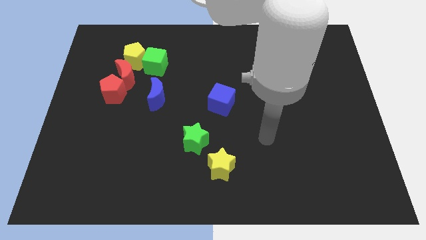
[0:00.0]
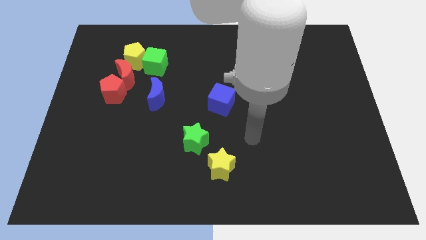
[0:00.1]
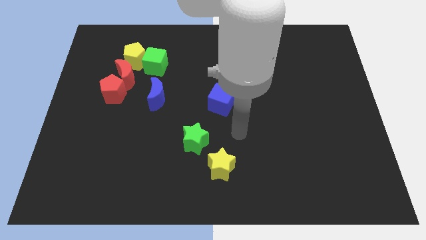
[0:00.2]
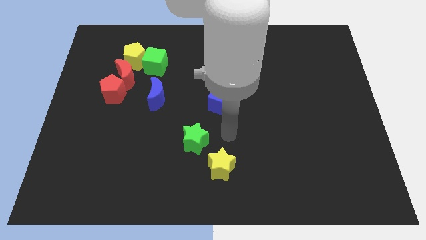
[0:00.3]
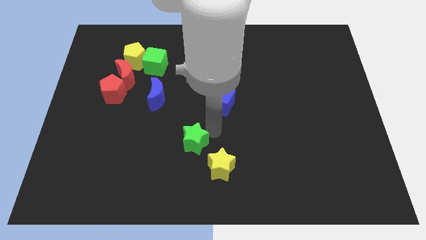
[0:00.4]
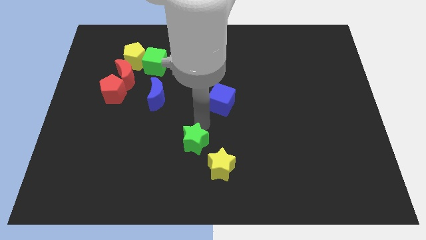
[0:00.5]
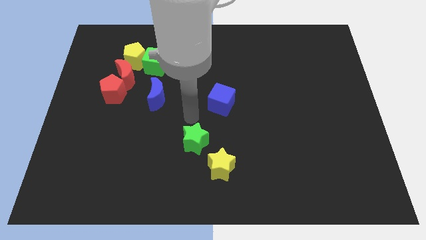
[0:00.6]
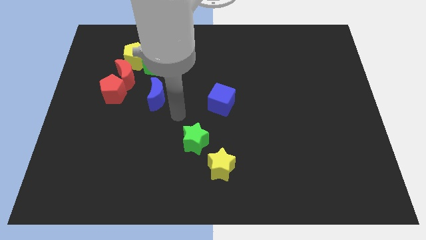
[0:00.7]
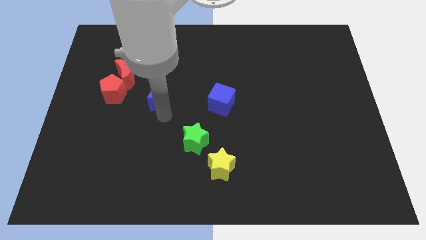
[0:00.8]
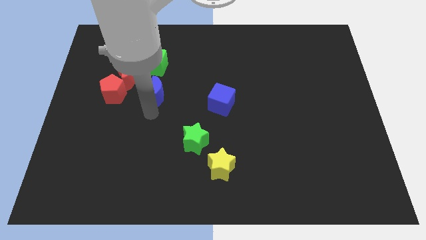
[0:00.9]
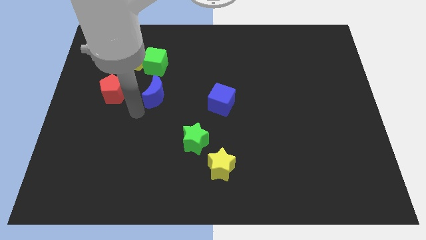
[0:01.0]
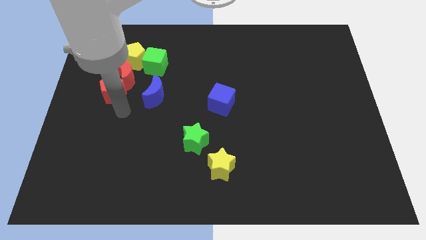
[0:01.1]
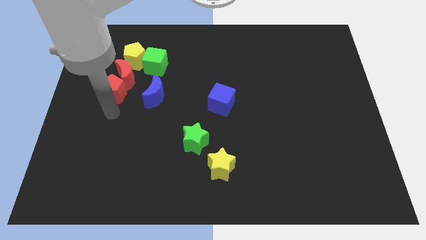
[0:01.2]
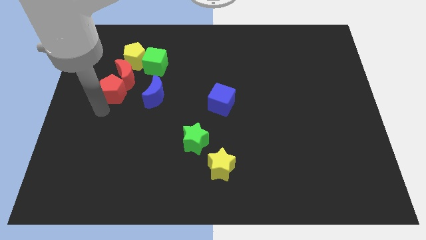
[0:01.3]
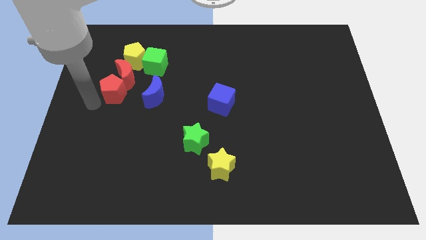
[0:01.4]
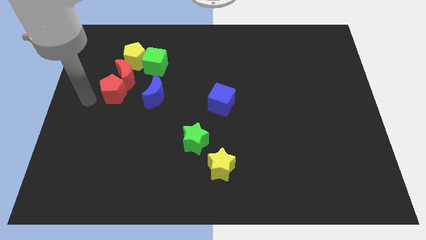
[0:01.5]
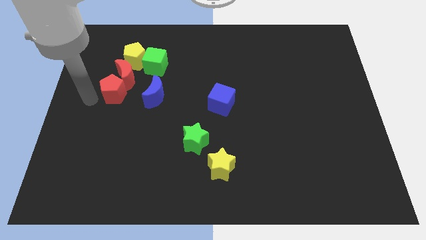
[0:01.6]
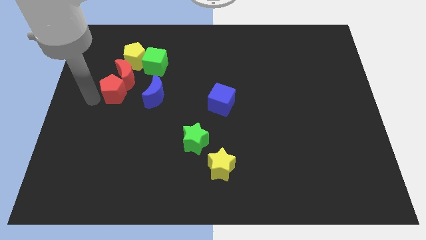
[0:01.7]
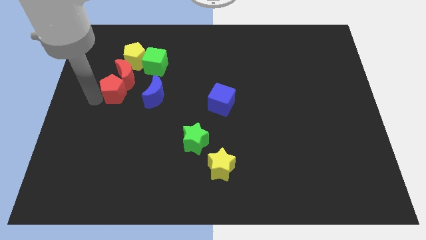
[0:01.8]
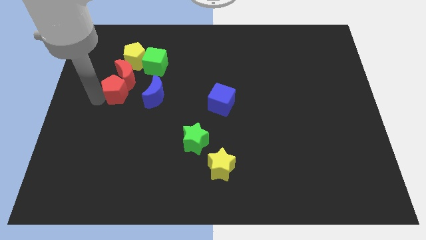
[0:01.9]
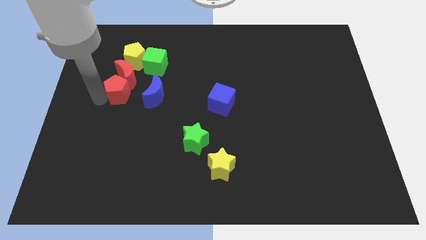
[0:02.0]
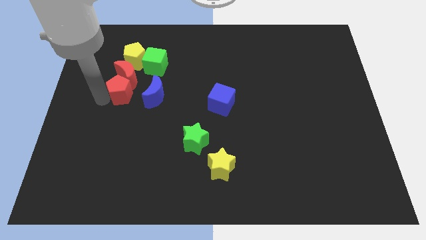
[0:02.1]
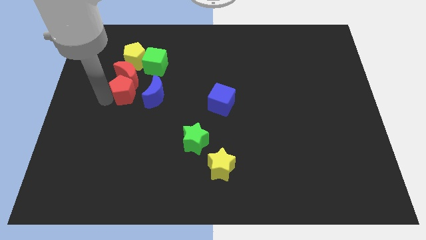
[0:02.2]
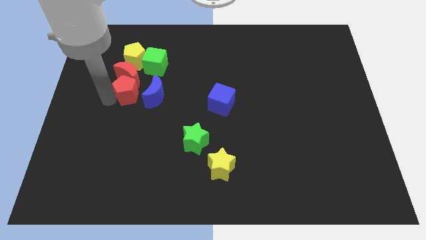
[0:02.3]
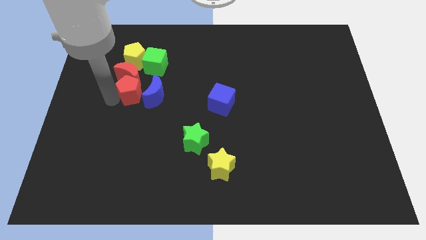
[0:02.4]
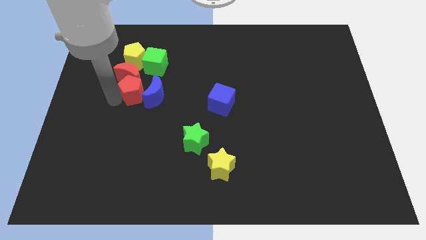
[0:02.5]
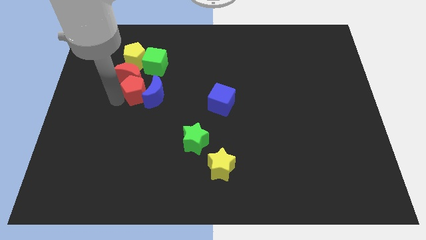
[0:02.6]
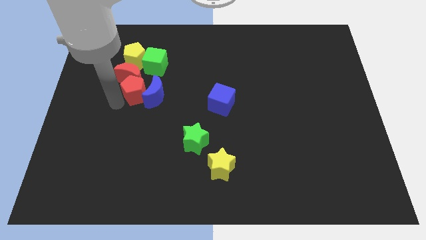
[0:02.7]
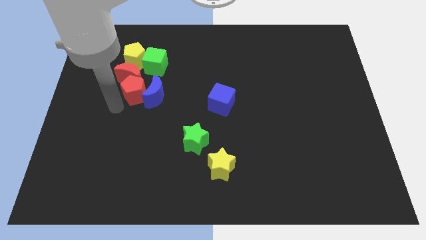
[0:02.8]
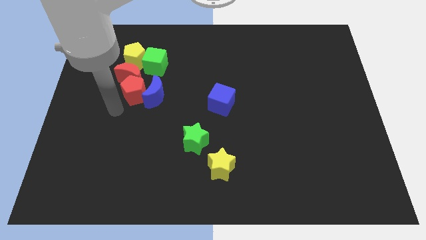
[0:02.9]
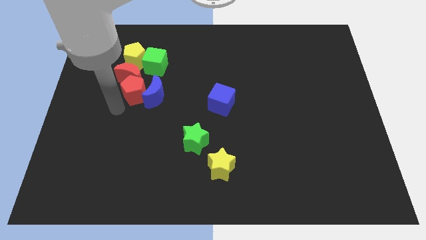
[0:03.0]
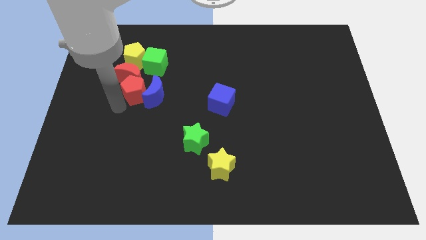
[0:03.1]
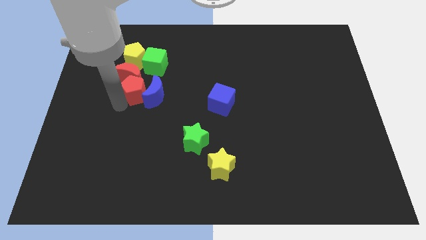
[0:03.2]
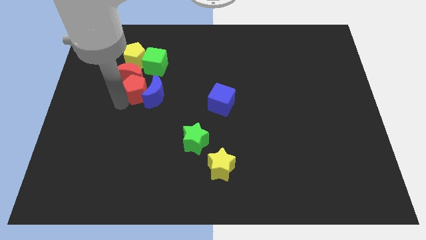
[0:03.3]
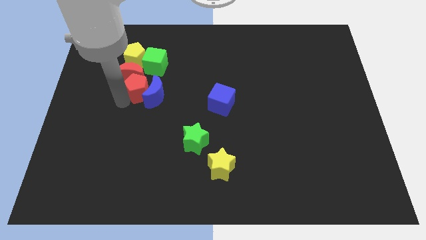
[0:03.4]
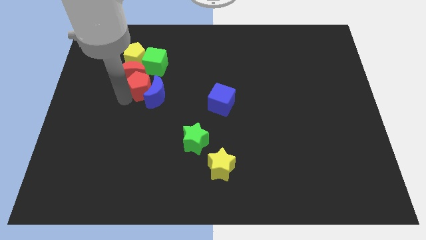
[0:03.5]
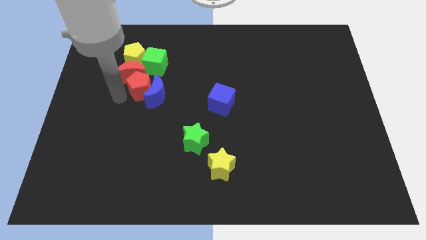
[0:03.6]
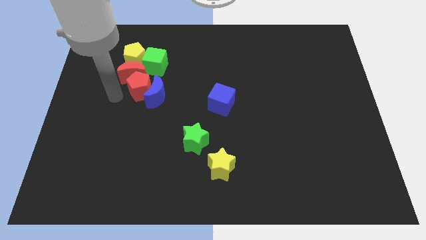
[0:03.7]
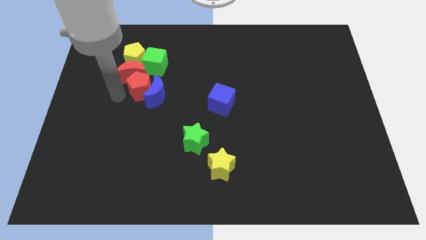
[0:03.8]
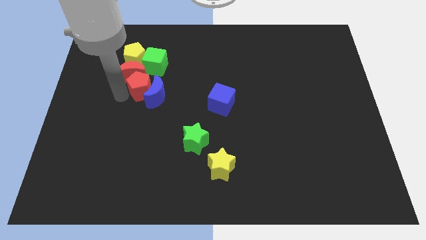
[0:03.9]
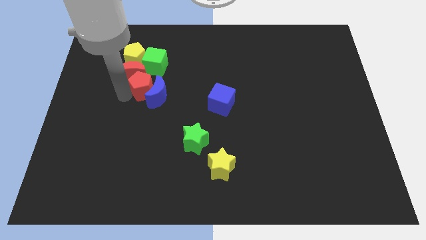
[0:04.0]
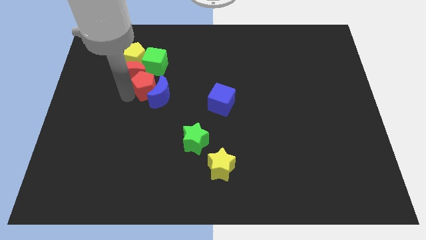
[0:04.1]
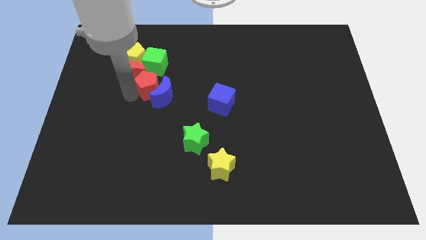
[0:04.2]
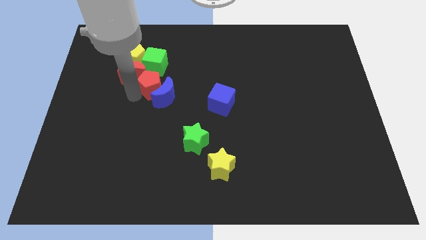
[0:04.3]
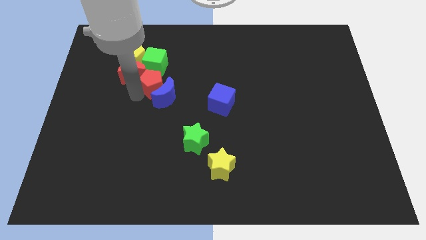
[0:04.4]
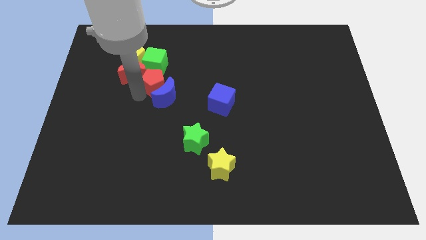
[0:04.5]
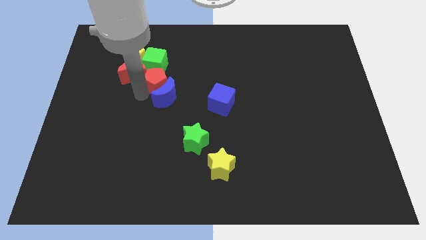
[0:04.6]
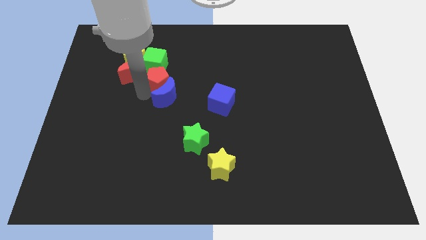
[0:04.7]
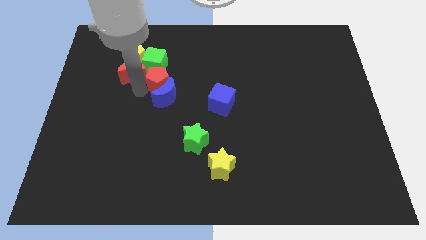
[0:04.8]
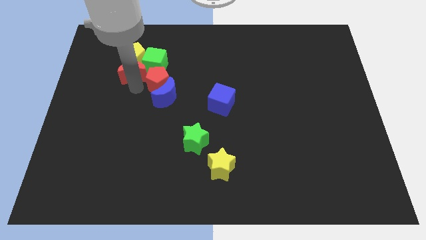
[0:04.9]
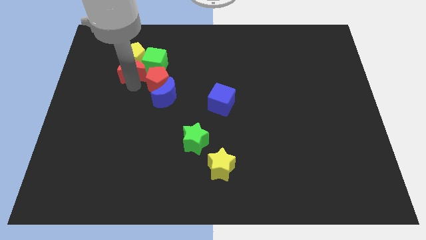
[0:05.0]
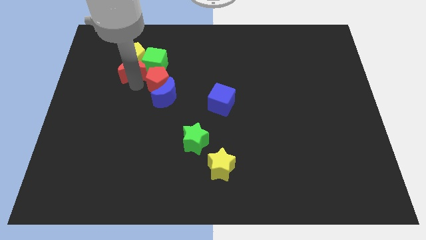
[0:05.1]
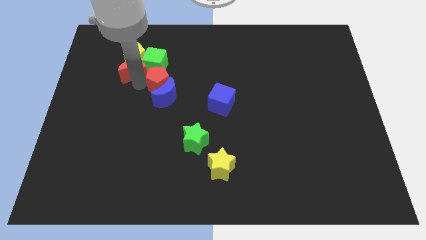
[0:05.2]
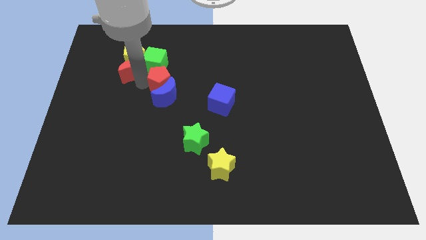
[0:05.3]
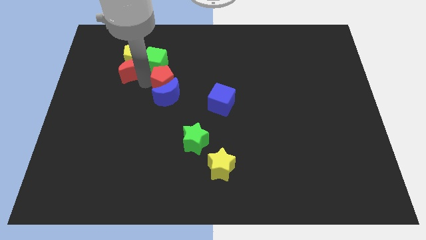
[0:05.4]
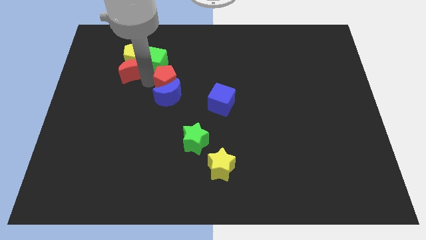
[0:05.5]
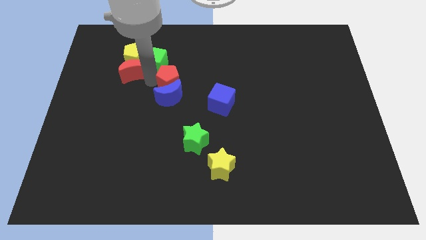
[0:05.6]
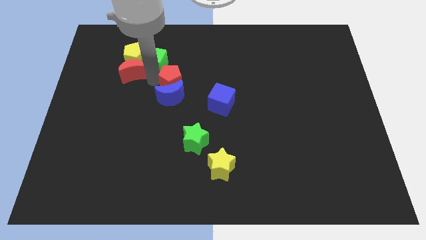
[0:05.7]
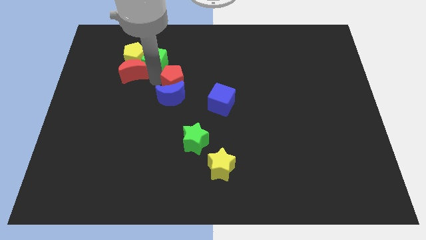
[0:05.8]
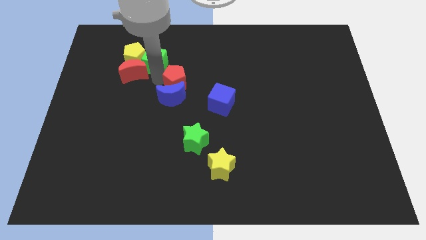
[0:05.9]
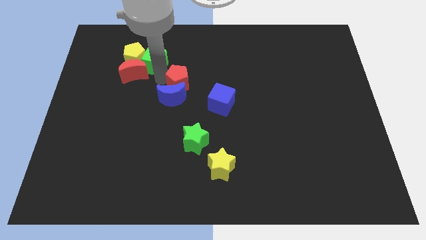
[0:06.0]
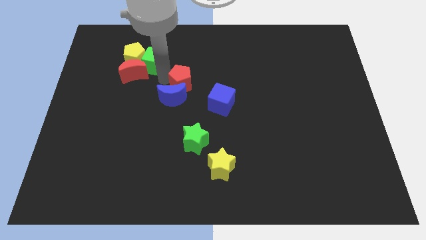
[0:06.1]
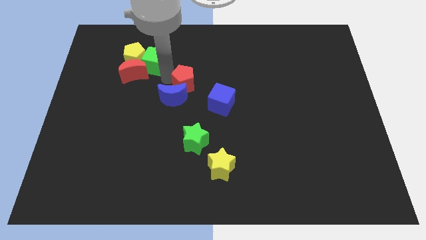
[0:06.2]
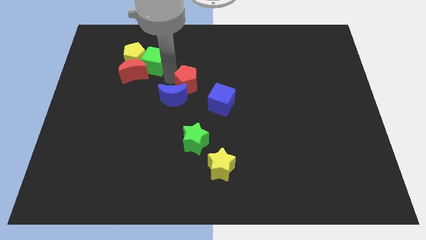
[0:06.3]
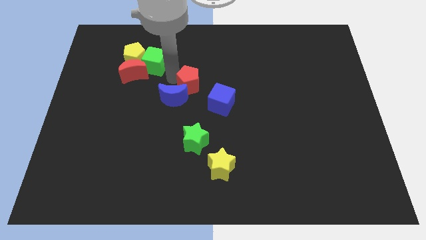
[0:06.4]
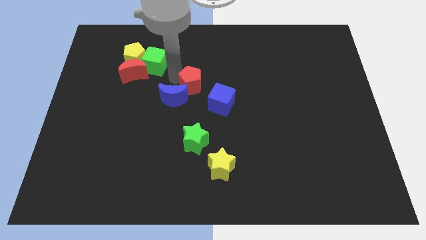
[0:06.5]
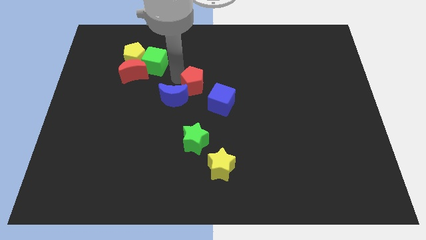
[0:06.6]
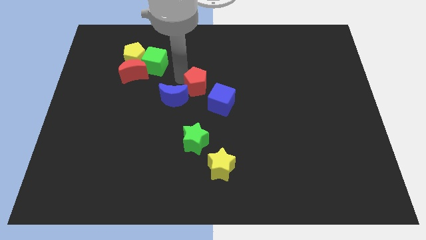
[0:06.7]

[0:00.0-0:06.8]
move the red pentagon to the right

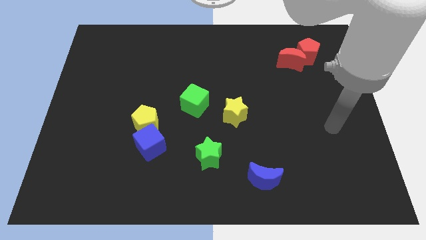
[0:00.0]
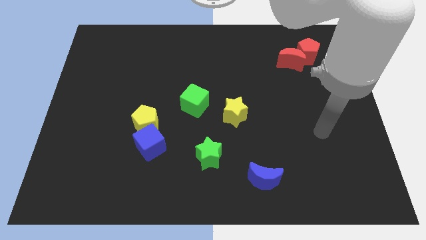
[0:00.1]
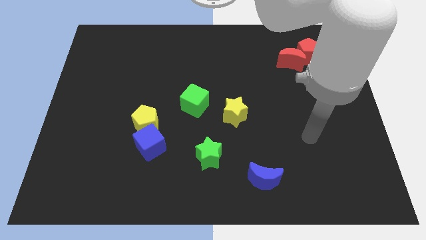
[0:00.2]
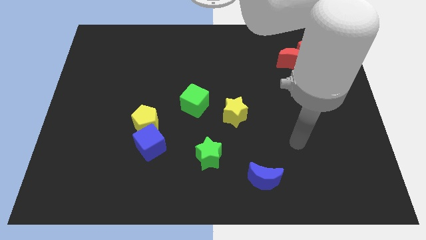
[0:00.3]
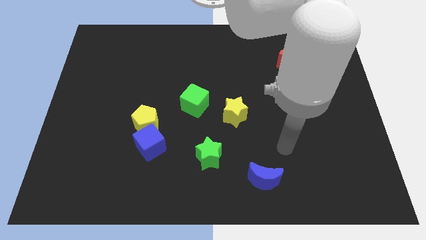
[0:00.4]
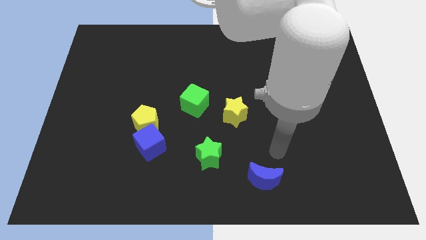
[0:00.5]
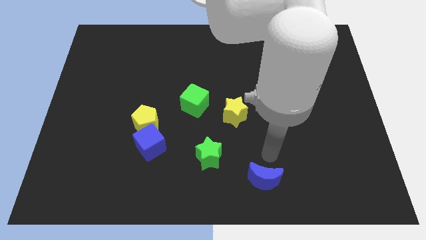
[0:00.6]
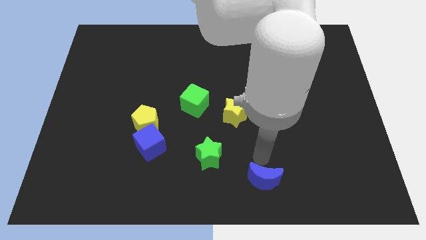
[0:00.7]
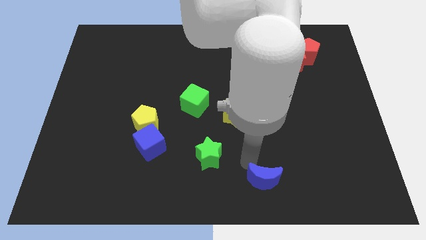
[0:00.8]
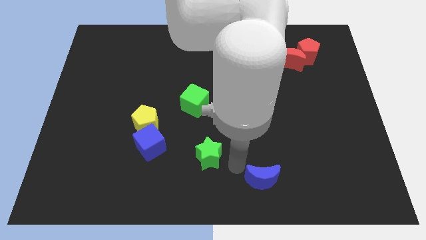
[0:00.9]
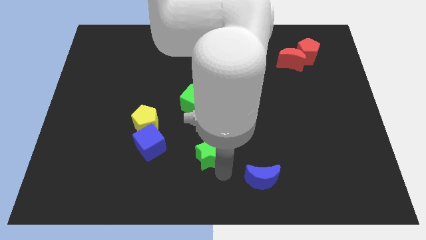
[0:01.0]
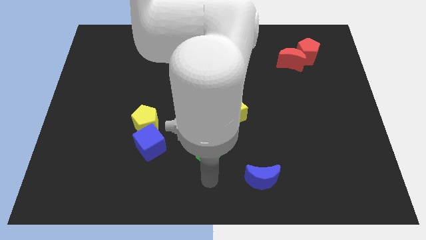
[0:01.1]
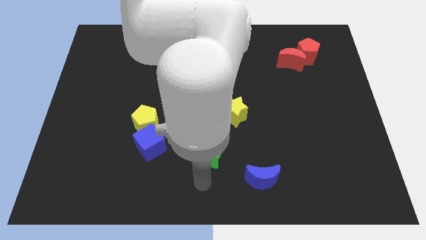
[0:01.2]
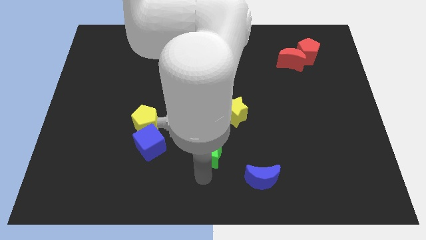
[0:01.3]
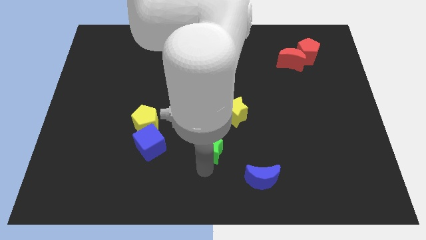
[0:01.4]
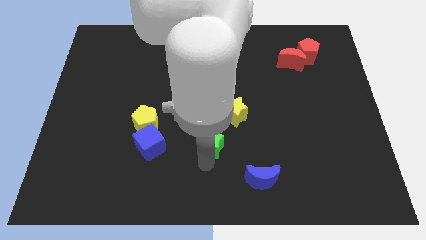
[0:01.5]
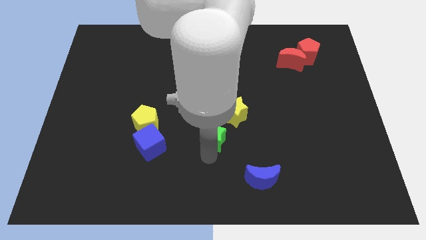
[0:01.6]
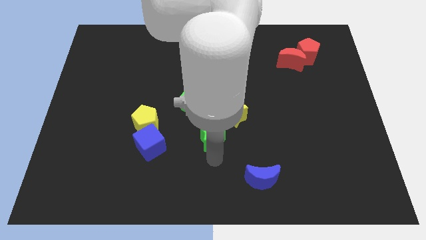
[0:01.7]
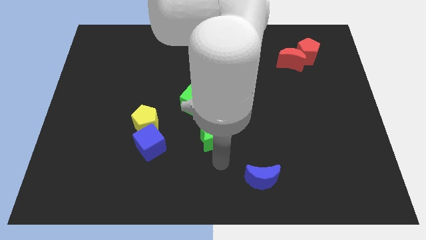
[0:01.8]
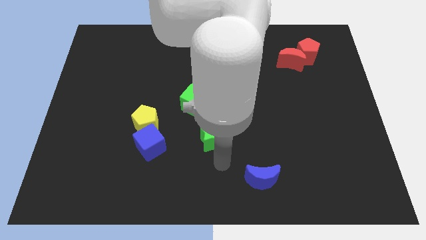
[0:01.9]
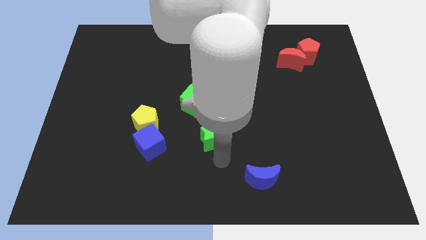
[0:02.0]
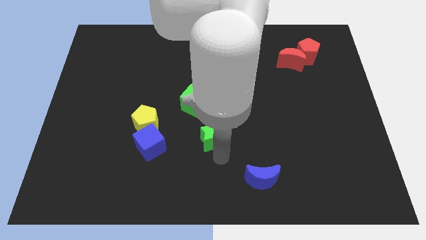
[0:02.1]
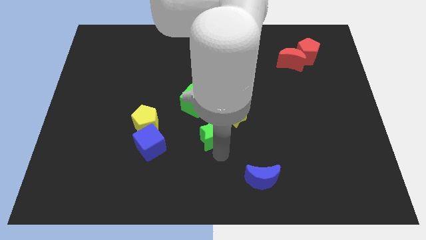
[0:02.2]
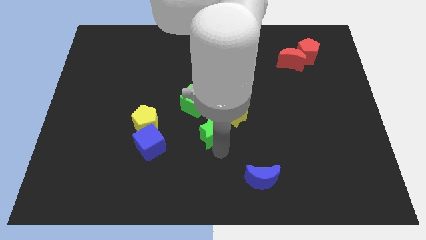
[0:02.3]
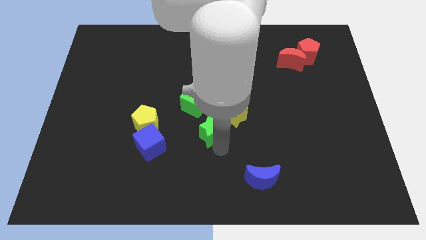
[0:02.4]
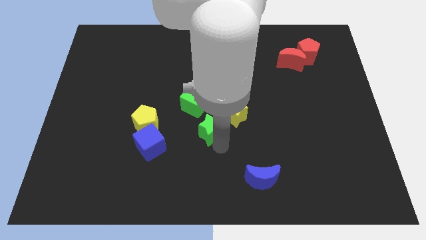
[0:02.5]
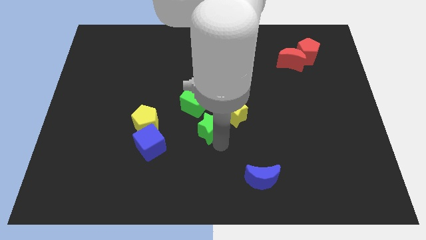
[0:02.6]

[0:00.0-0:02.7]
slide the green star upwards a little
